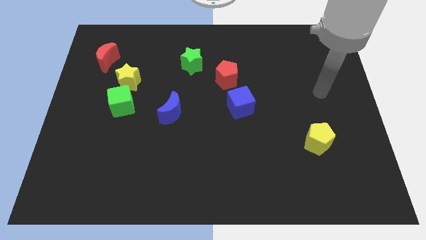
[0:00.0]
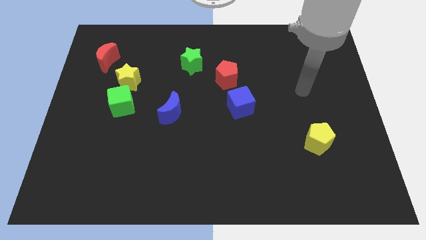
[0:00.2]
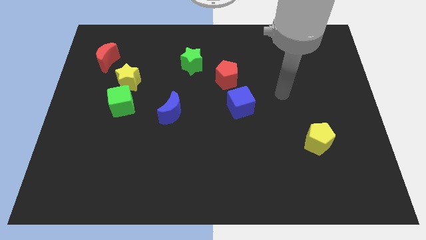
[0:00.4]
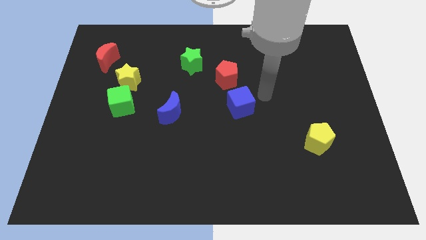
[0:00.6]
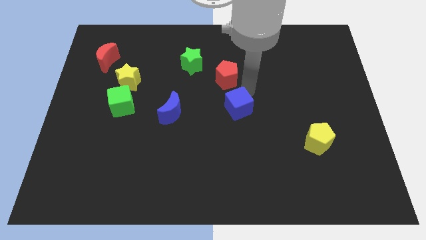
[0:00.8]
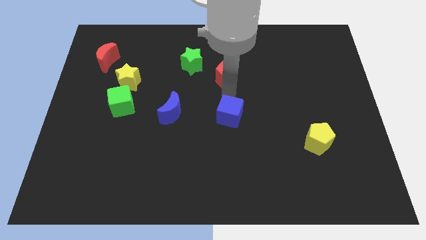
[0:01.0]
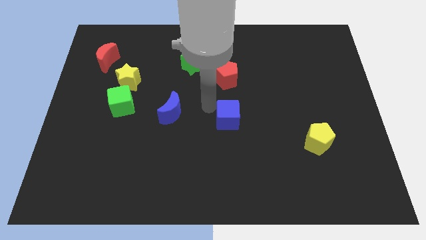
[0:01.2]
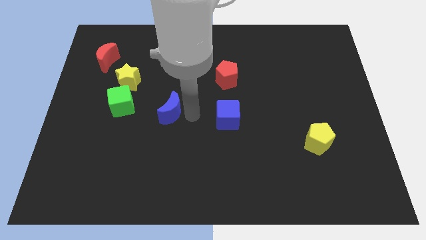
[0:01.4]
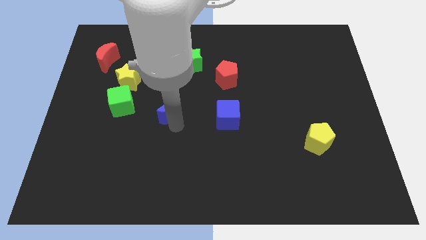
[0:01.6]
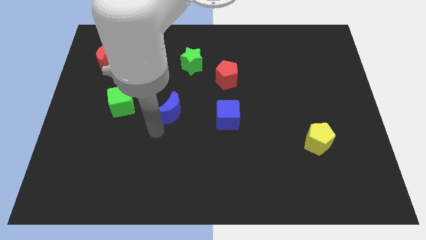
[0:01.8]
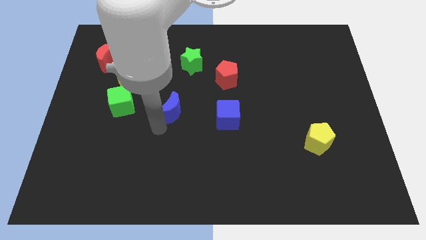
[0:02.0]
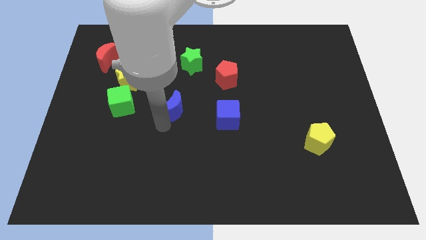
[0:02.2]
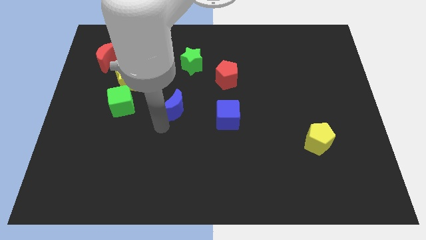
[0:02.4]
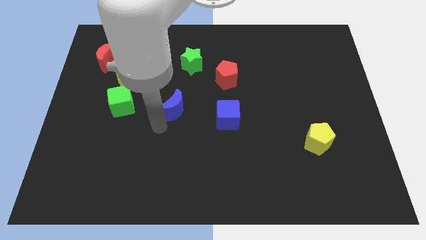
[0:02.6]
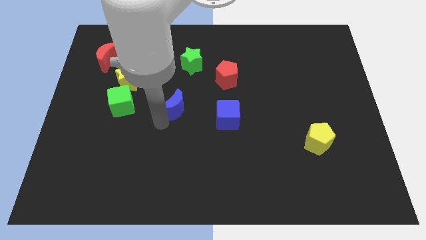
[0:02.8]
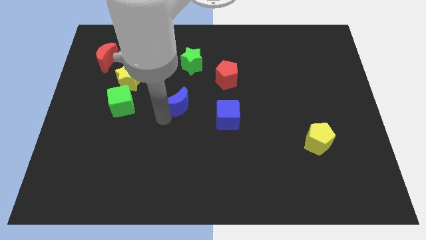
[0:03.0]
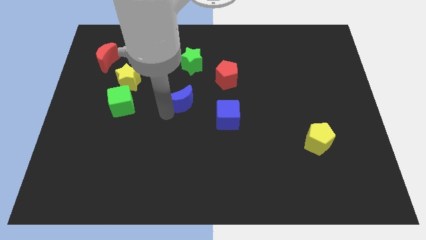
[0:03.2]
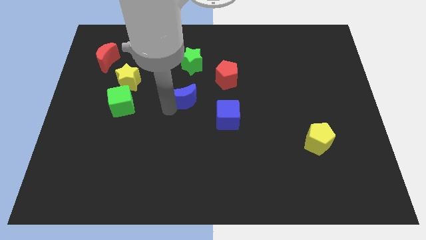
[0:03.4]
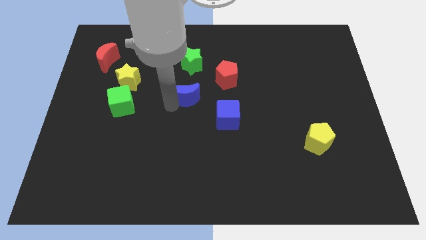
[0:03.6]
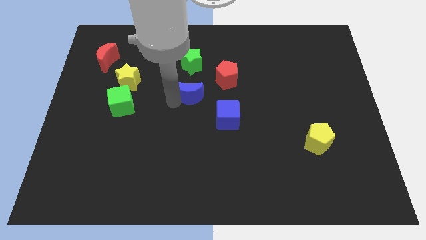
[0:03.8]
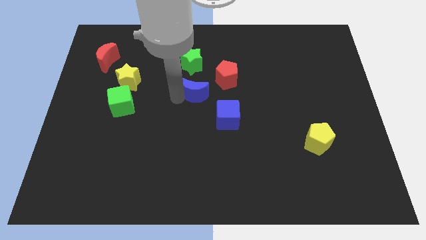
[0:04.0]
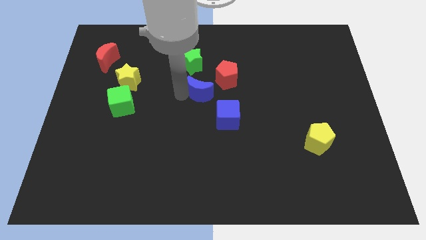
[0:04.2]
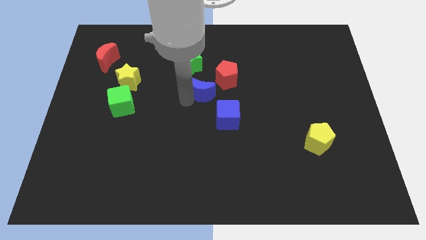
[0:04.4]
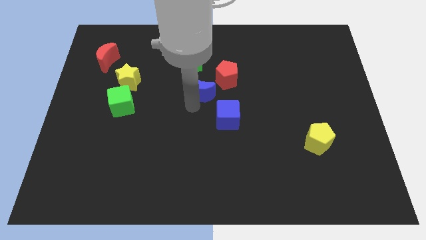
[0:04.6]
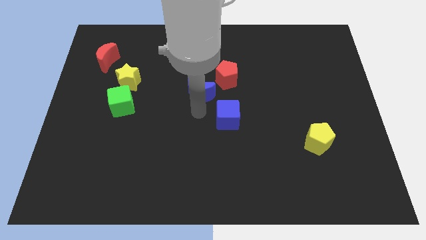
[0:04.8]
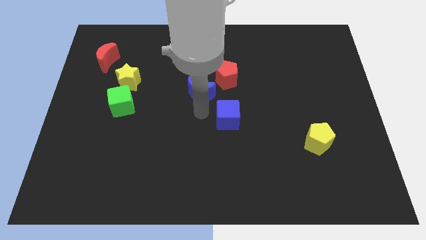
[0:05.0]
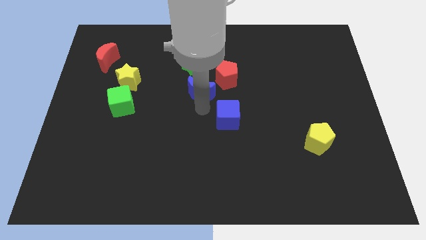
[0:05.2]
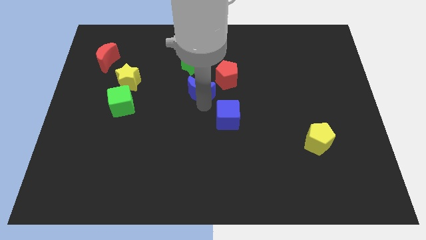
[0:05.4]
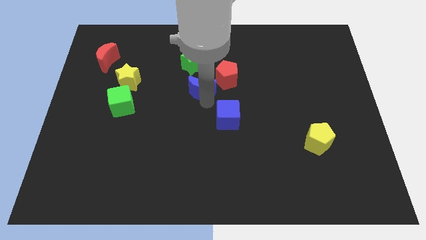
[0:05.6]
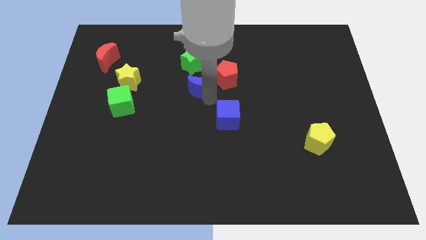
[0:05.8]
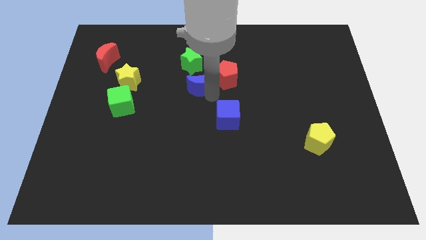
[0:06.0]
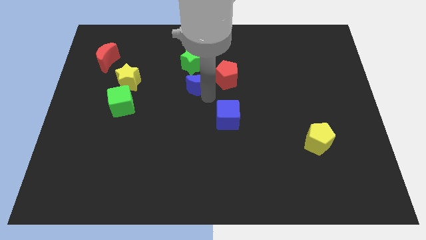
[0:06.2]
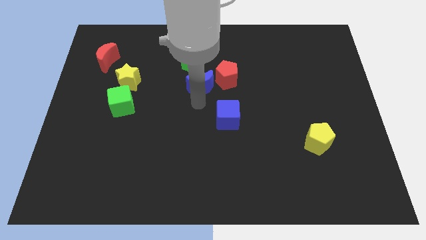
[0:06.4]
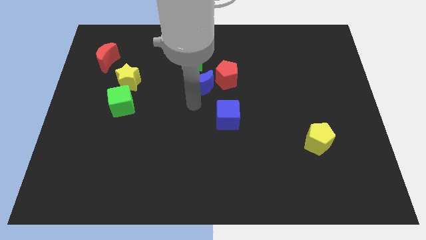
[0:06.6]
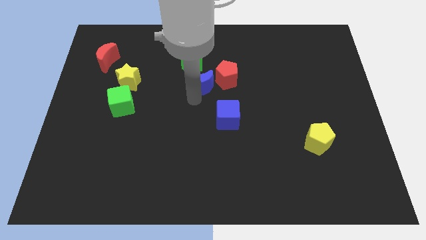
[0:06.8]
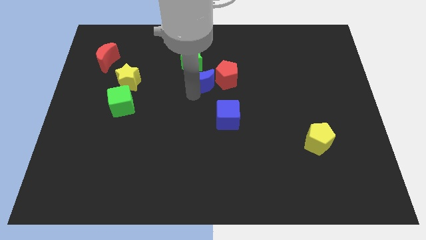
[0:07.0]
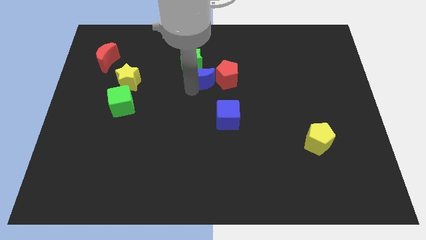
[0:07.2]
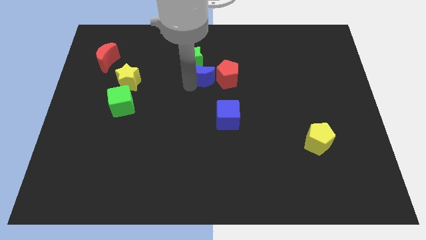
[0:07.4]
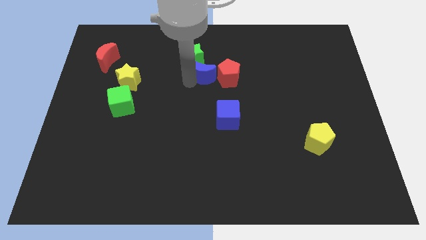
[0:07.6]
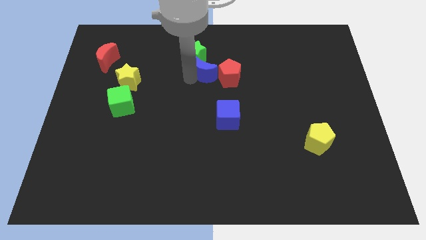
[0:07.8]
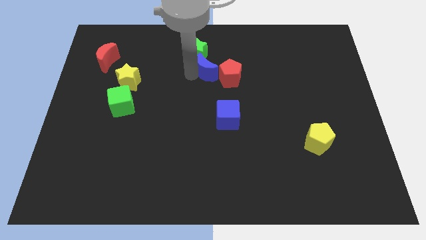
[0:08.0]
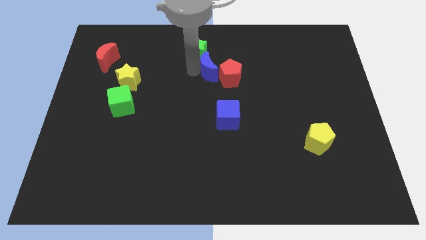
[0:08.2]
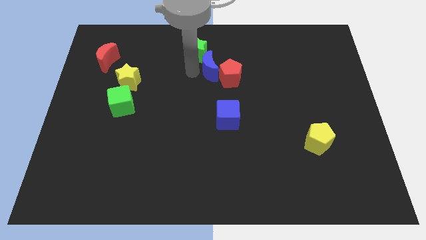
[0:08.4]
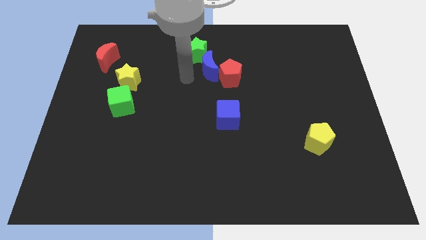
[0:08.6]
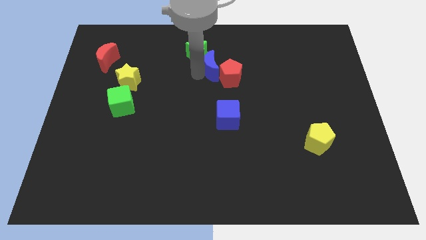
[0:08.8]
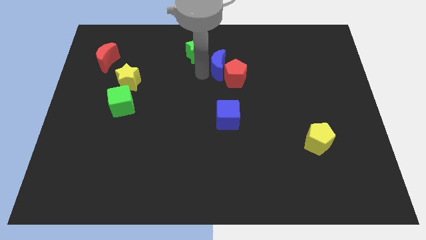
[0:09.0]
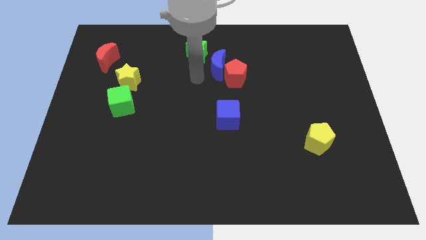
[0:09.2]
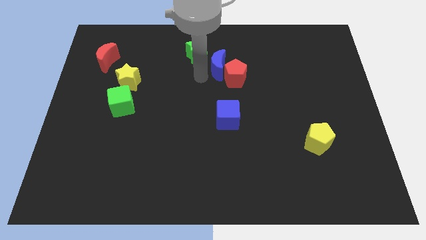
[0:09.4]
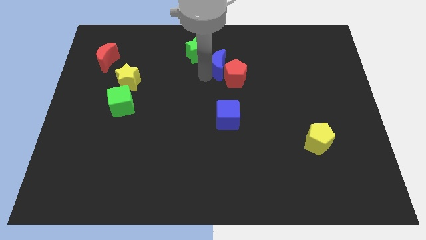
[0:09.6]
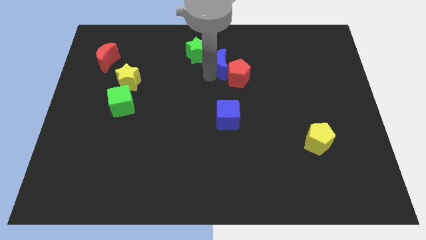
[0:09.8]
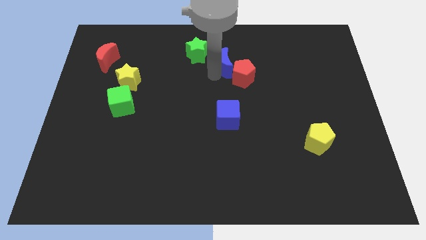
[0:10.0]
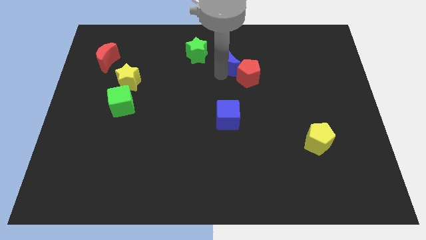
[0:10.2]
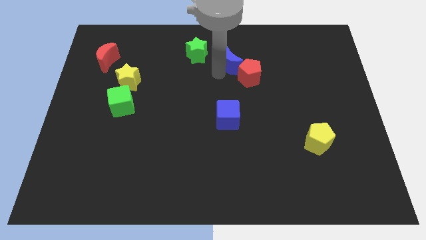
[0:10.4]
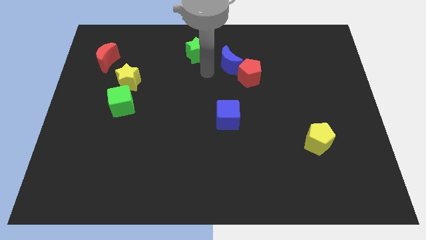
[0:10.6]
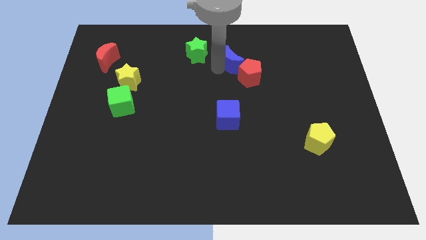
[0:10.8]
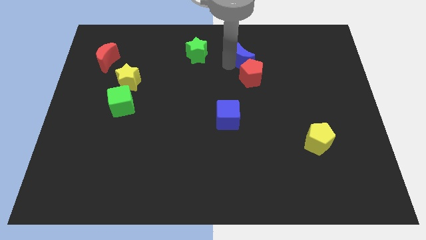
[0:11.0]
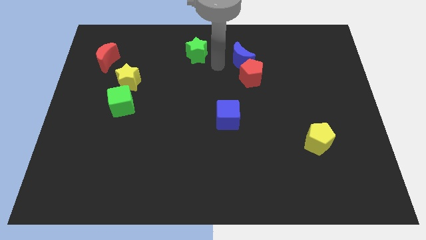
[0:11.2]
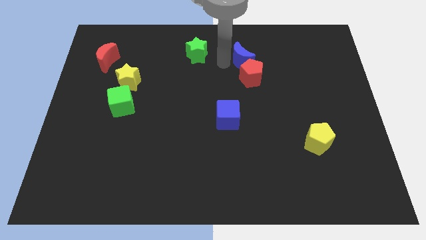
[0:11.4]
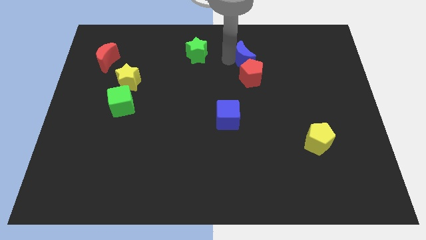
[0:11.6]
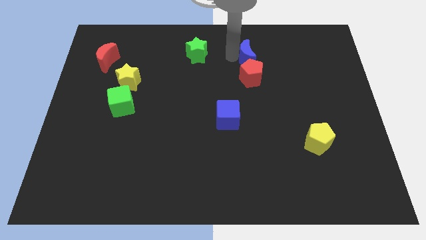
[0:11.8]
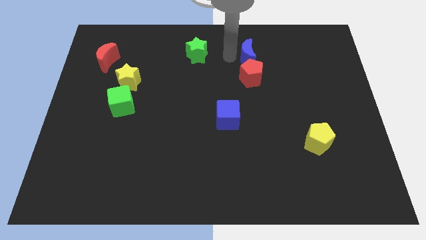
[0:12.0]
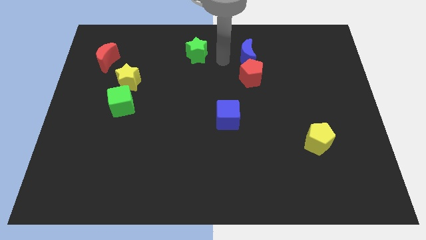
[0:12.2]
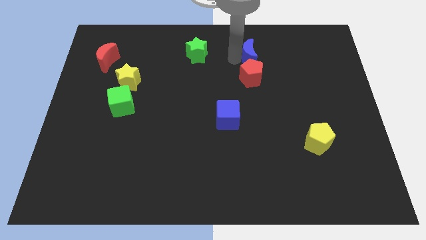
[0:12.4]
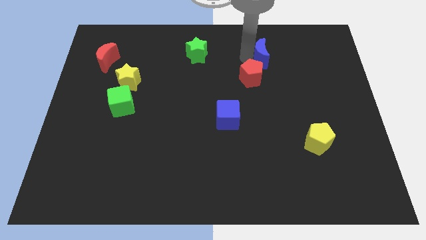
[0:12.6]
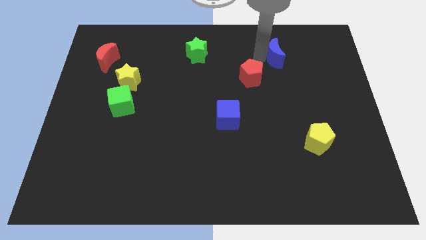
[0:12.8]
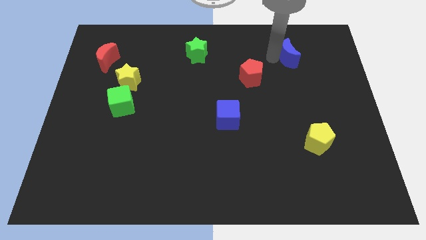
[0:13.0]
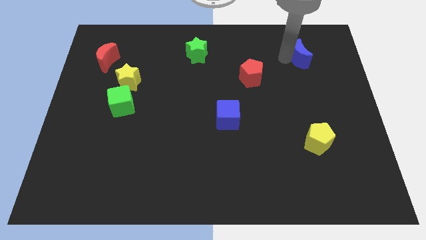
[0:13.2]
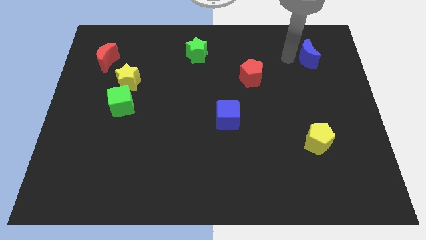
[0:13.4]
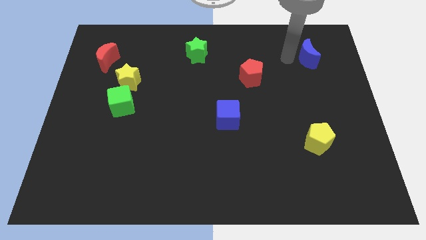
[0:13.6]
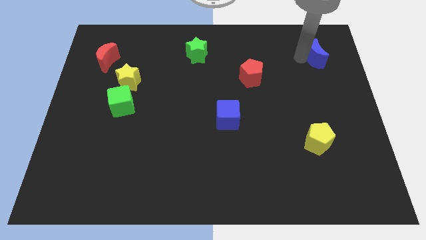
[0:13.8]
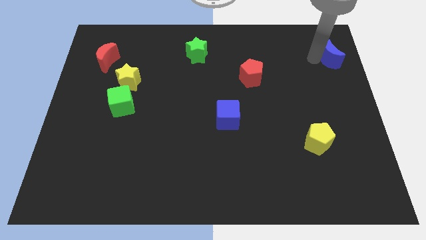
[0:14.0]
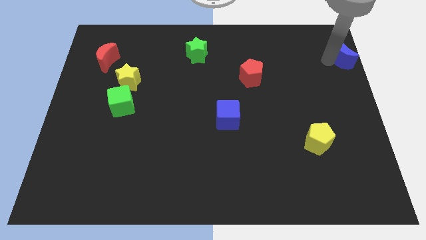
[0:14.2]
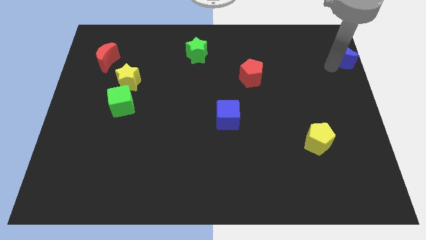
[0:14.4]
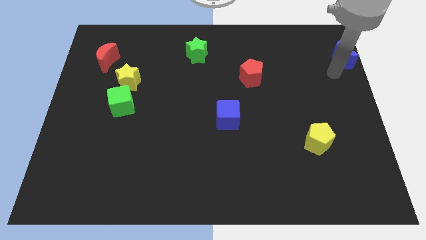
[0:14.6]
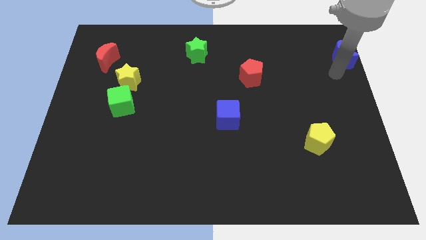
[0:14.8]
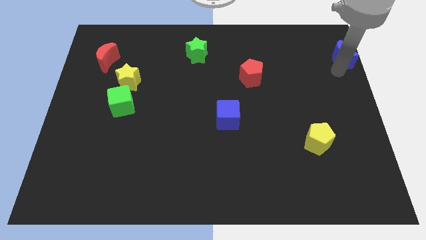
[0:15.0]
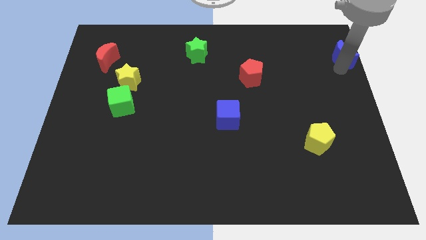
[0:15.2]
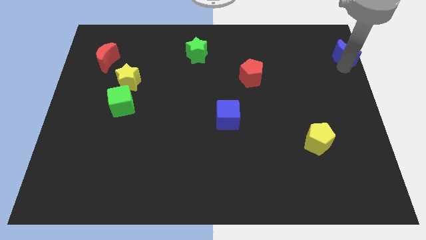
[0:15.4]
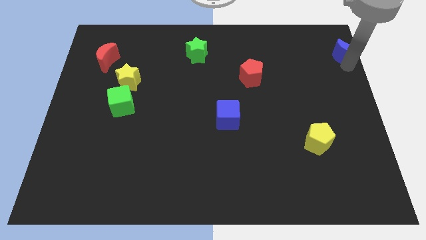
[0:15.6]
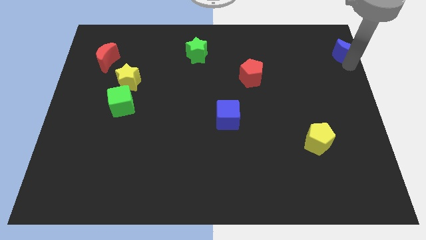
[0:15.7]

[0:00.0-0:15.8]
push the blue moon to the top right
